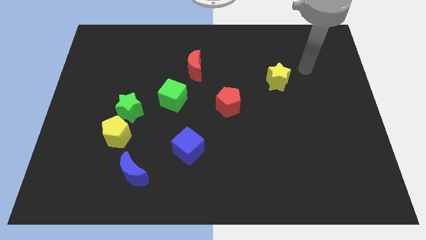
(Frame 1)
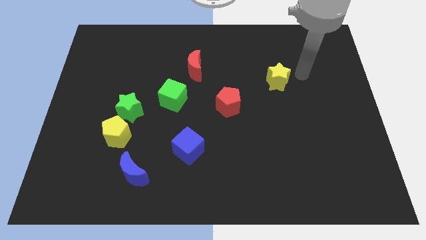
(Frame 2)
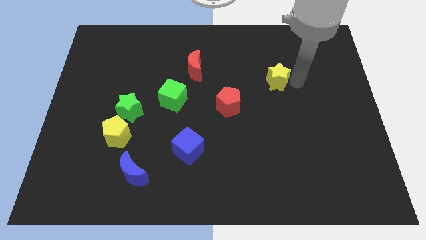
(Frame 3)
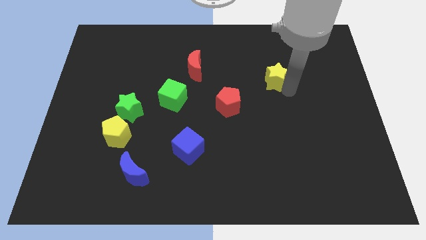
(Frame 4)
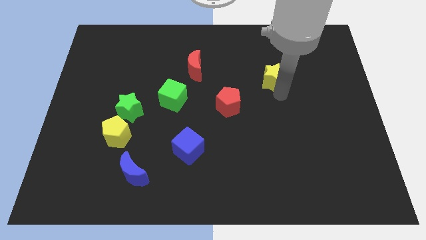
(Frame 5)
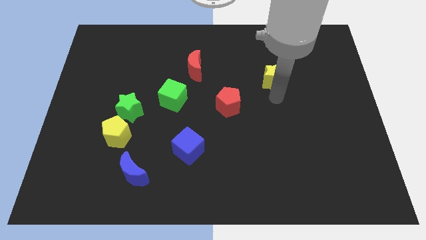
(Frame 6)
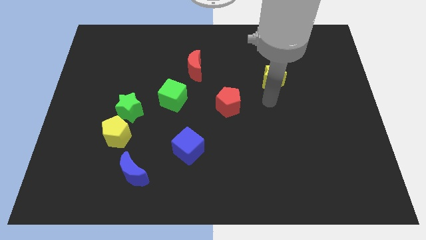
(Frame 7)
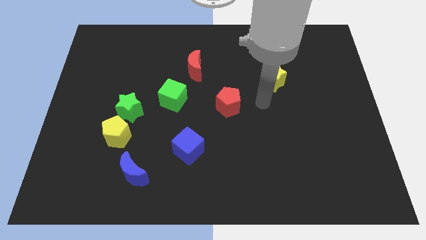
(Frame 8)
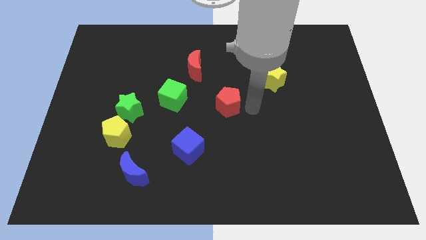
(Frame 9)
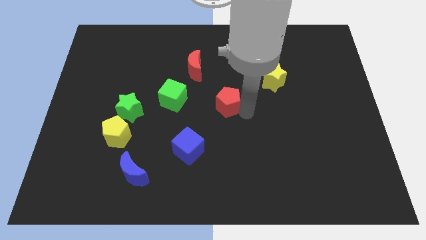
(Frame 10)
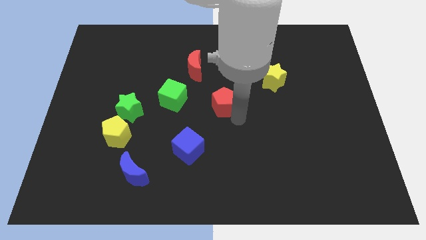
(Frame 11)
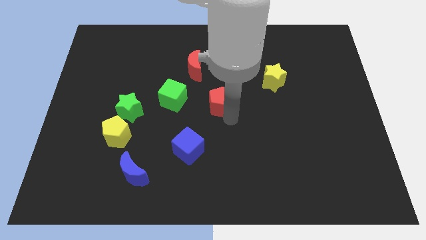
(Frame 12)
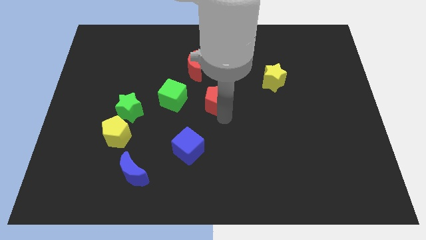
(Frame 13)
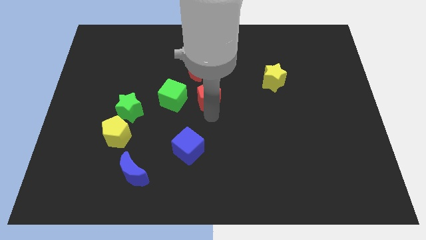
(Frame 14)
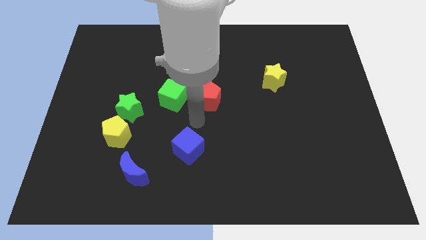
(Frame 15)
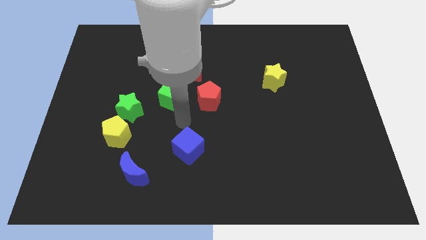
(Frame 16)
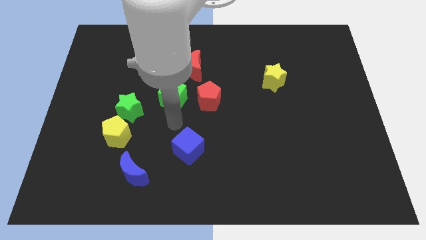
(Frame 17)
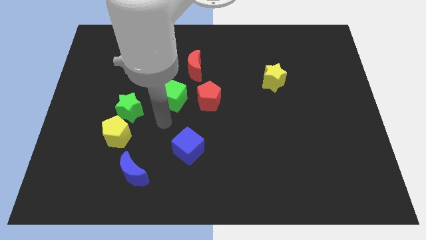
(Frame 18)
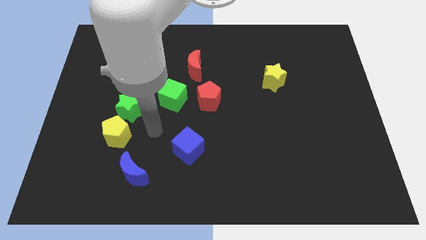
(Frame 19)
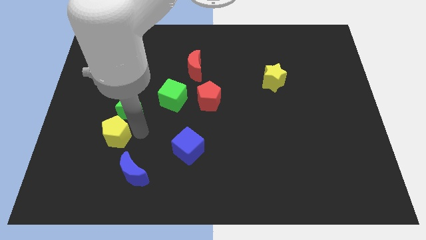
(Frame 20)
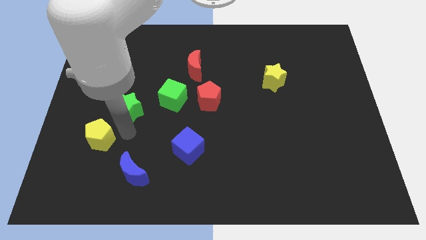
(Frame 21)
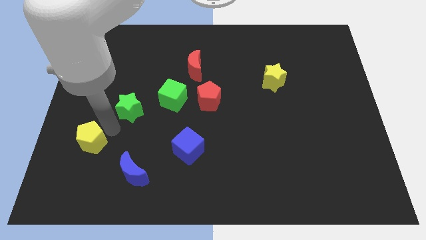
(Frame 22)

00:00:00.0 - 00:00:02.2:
pull the green star apart from the yellow pentagon

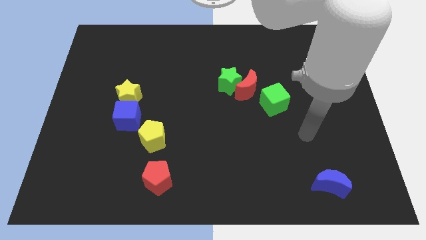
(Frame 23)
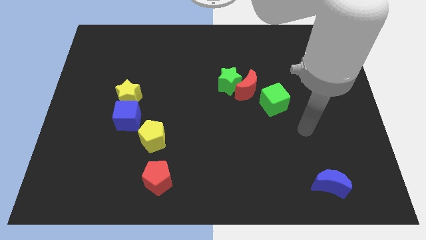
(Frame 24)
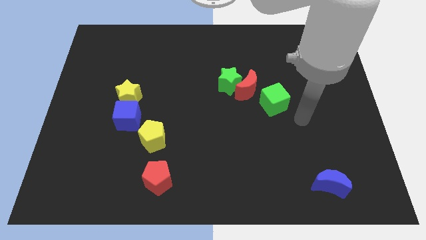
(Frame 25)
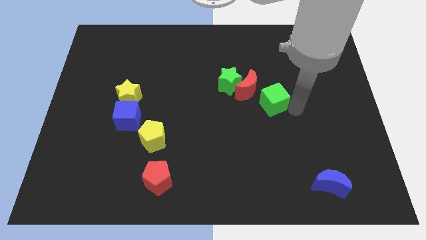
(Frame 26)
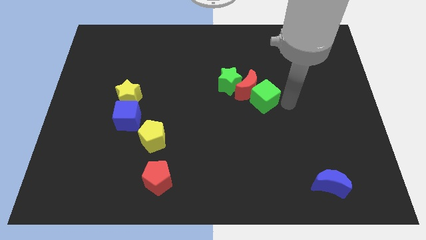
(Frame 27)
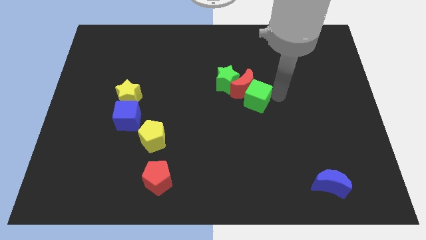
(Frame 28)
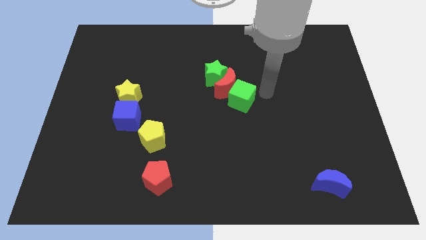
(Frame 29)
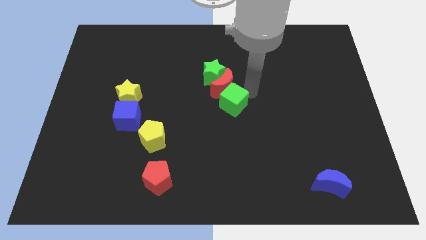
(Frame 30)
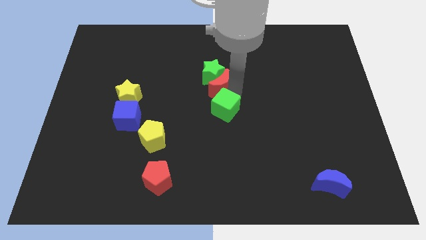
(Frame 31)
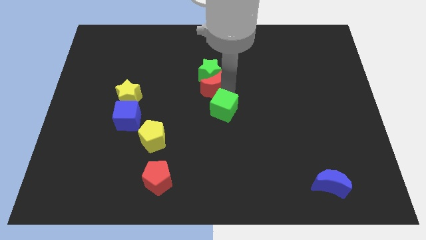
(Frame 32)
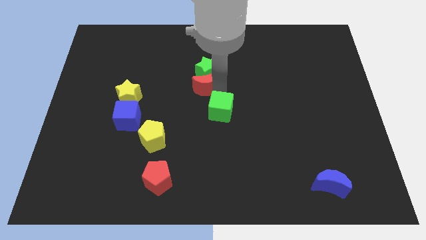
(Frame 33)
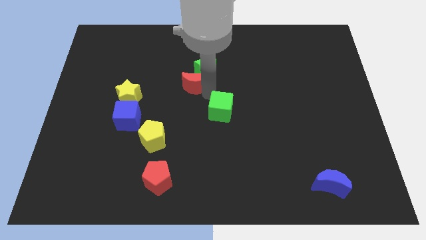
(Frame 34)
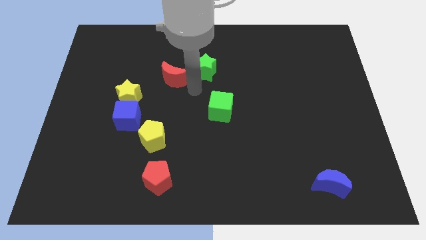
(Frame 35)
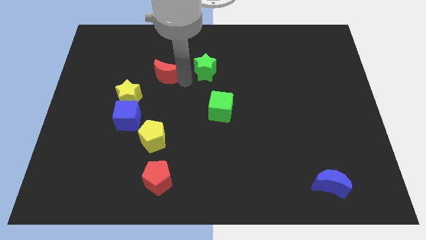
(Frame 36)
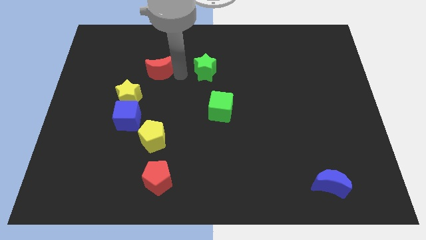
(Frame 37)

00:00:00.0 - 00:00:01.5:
pull the green star apart from the red moon

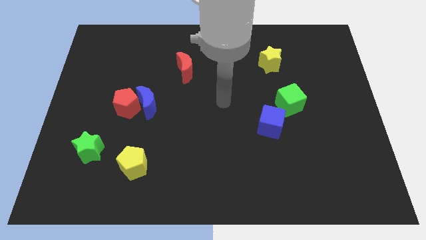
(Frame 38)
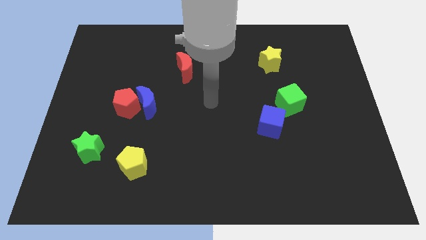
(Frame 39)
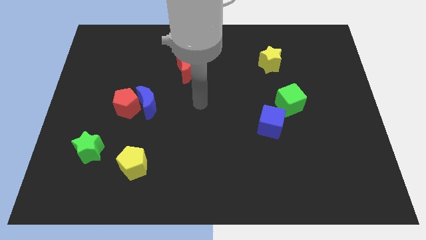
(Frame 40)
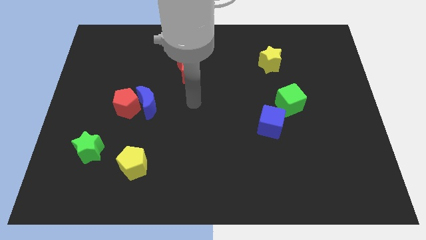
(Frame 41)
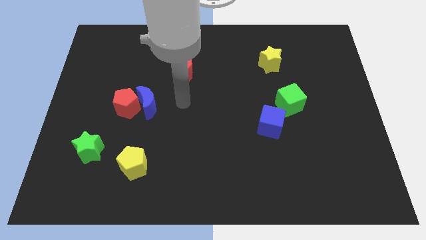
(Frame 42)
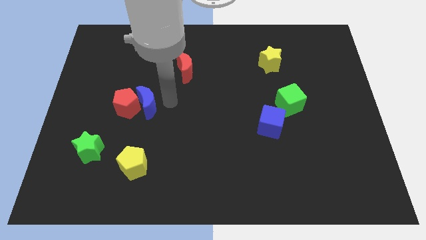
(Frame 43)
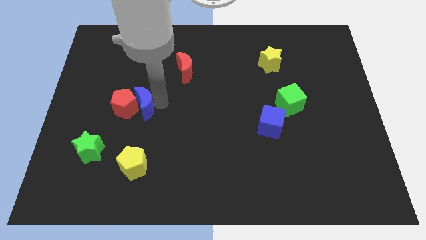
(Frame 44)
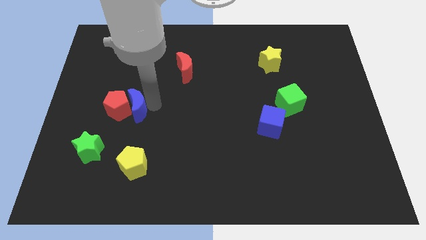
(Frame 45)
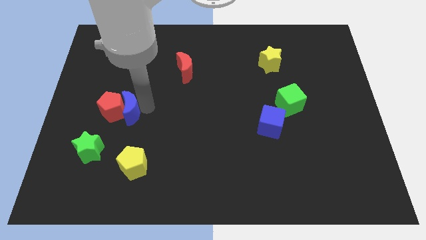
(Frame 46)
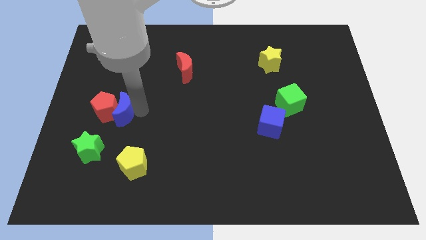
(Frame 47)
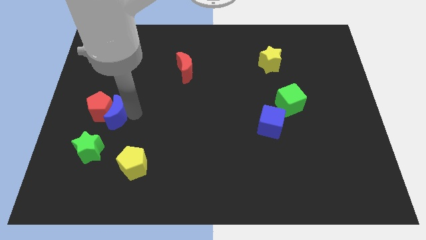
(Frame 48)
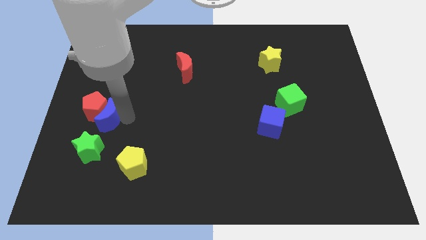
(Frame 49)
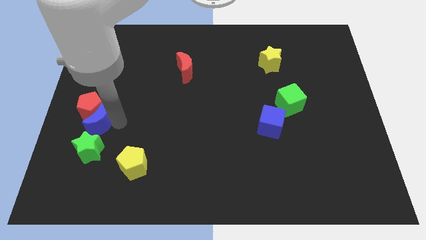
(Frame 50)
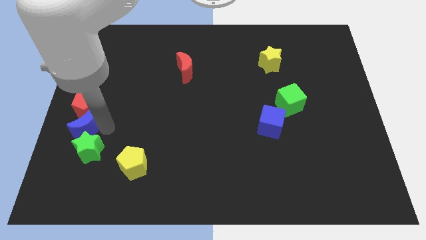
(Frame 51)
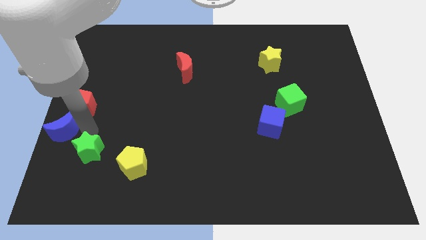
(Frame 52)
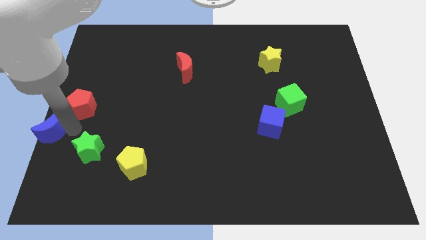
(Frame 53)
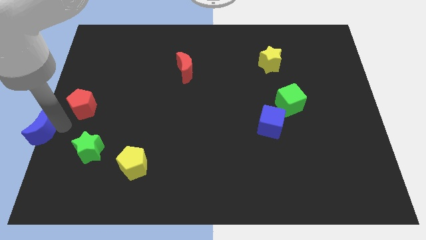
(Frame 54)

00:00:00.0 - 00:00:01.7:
move the red pentagon away from the blue moon

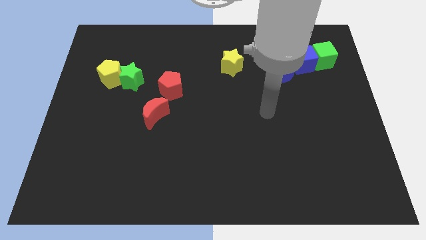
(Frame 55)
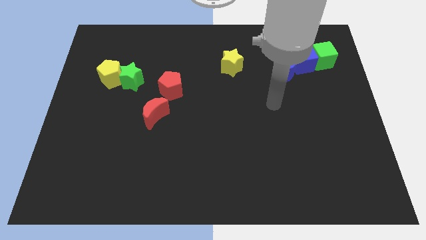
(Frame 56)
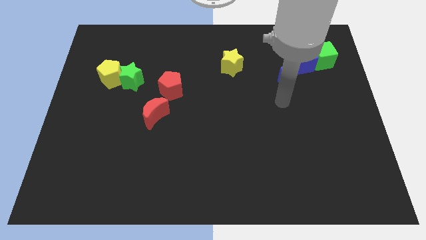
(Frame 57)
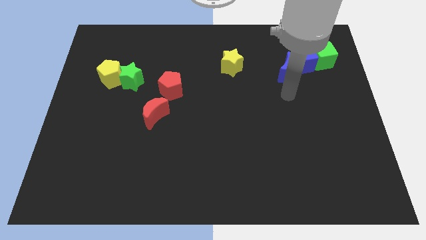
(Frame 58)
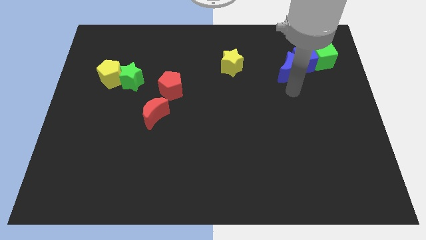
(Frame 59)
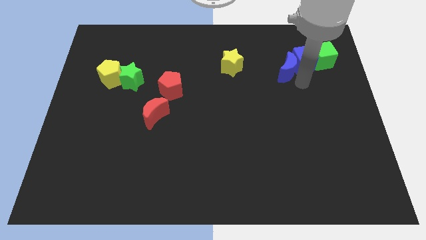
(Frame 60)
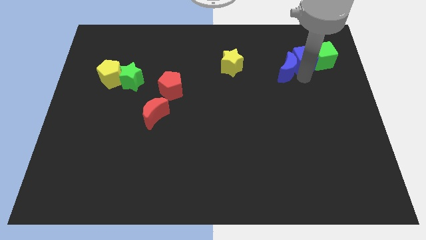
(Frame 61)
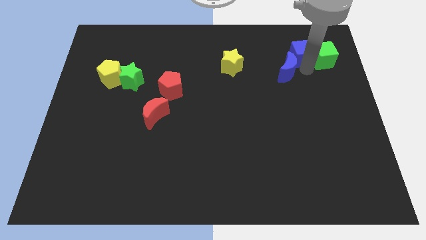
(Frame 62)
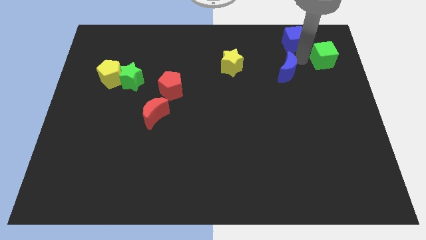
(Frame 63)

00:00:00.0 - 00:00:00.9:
move the blue moon away from the blue cube

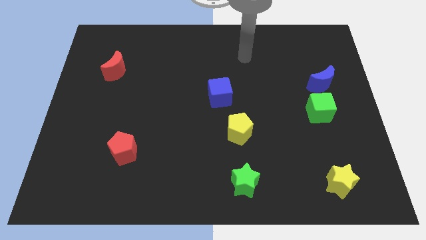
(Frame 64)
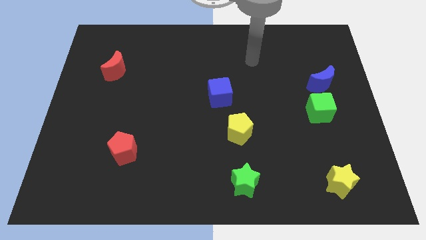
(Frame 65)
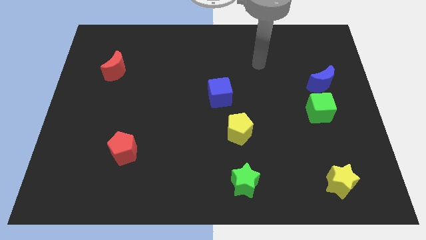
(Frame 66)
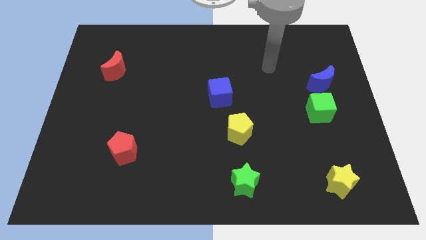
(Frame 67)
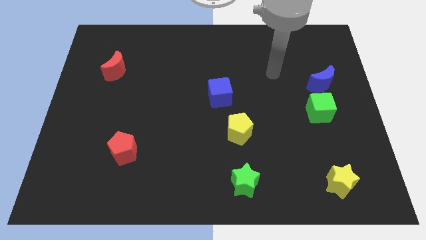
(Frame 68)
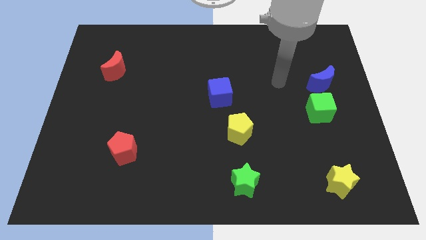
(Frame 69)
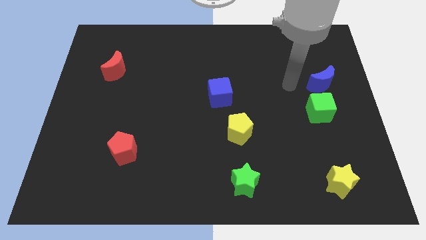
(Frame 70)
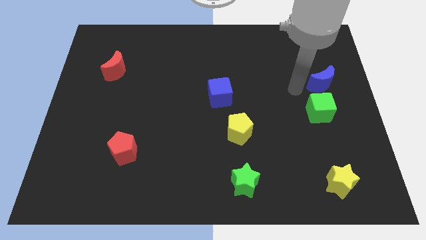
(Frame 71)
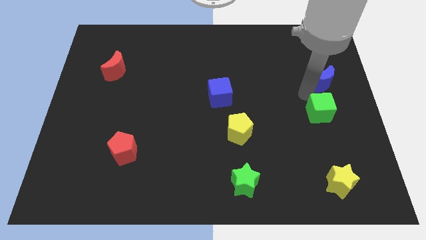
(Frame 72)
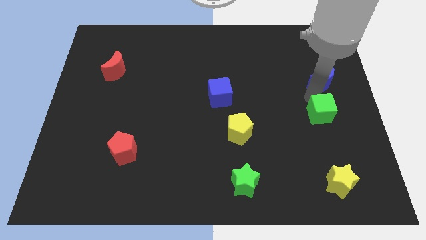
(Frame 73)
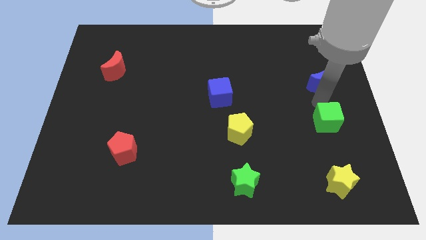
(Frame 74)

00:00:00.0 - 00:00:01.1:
pull the blue moon apart from the green cube

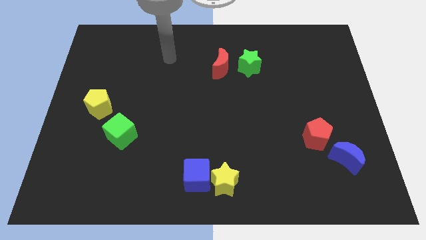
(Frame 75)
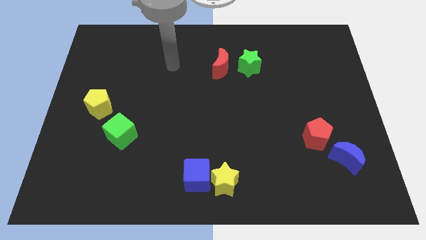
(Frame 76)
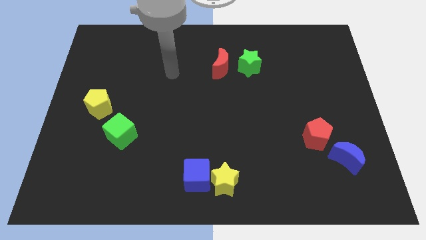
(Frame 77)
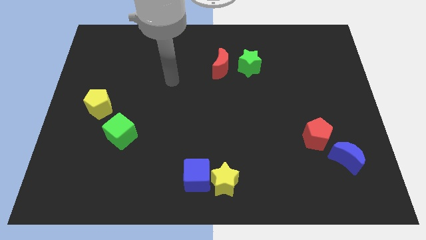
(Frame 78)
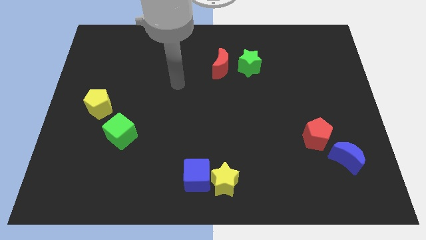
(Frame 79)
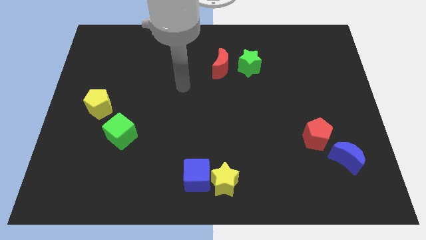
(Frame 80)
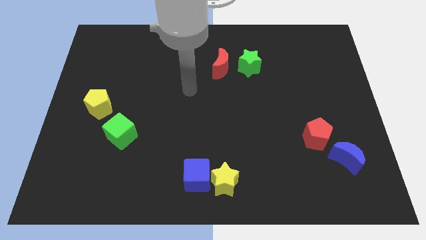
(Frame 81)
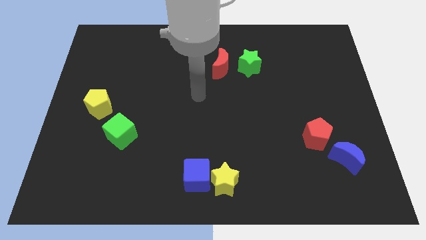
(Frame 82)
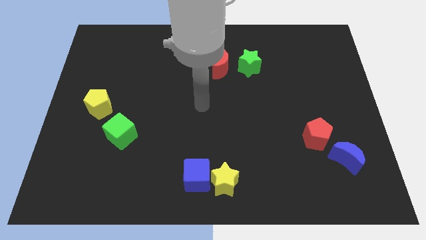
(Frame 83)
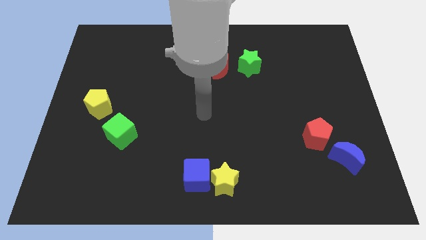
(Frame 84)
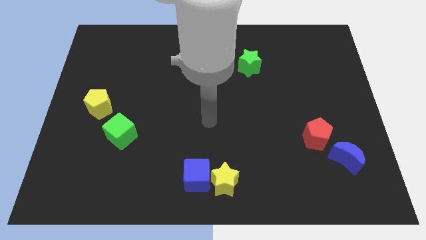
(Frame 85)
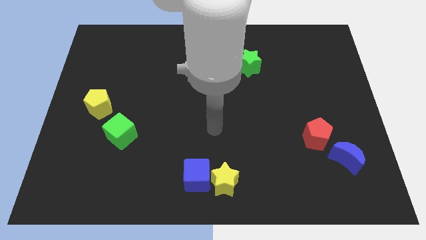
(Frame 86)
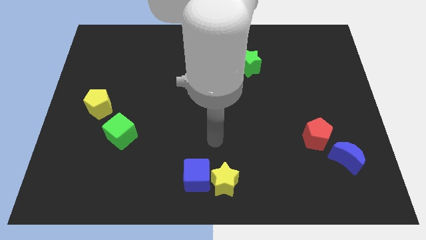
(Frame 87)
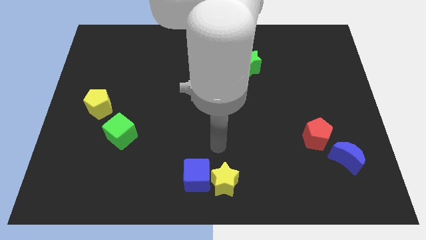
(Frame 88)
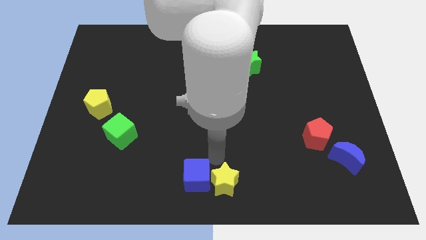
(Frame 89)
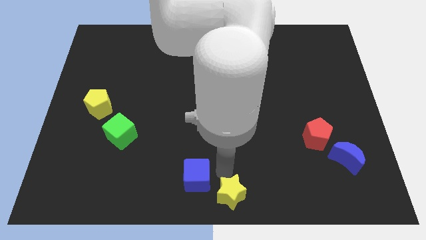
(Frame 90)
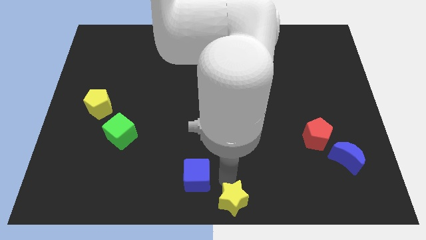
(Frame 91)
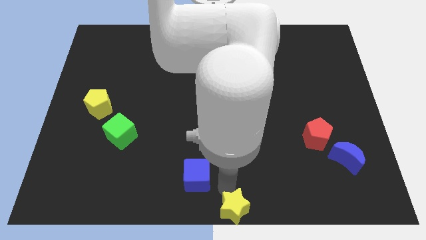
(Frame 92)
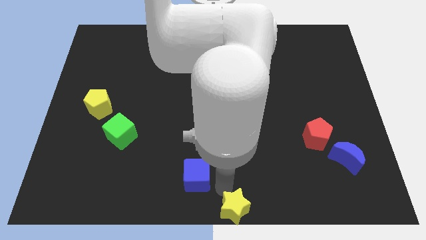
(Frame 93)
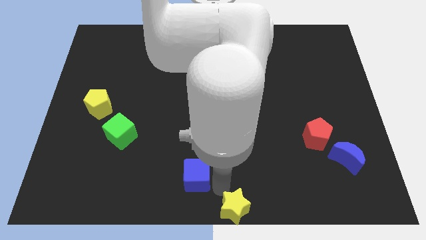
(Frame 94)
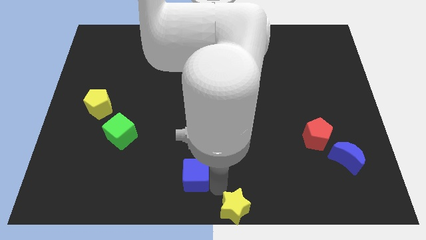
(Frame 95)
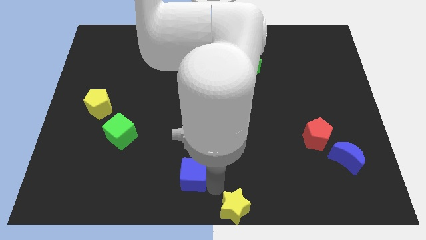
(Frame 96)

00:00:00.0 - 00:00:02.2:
separate the blue cube from the yellow star
